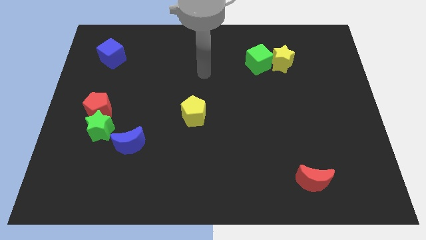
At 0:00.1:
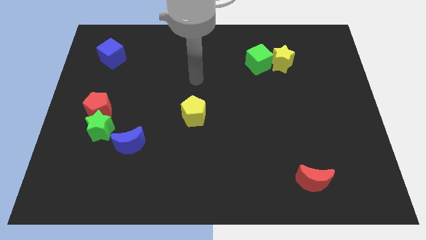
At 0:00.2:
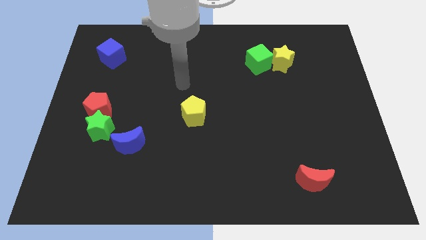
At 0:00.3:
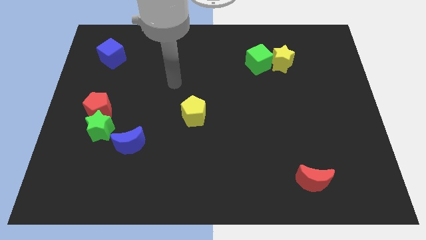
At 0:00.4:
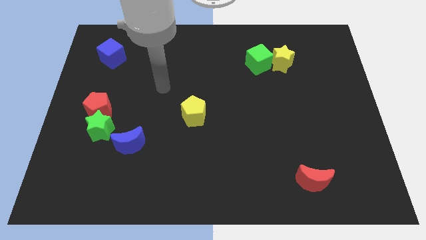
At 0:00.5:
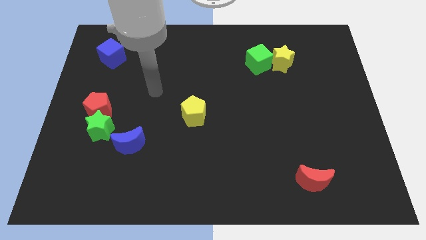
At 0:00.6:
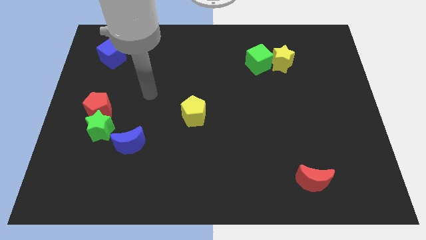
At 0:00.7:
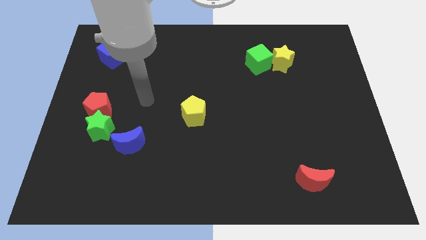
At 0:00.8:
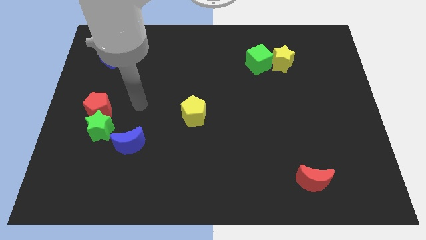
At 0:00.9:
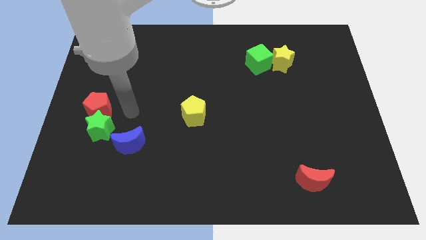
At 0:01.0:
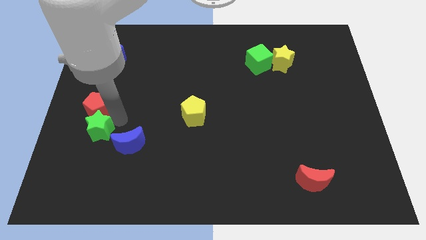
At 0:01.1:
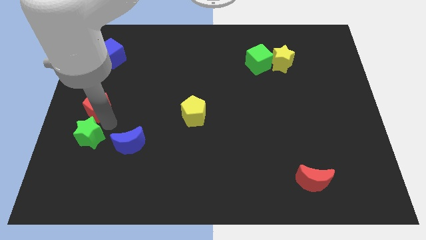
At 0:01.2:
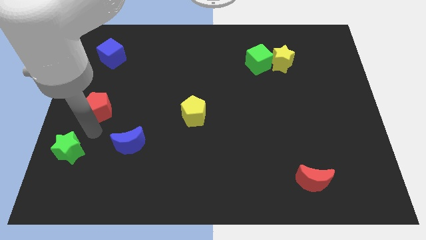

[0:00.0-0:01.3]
pull the red pentagon apart from the green star

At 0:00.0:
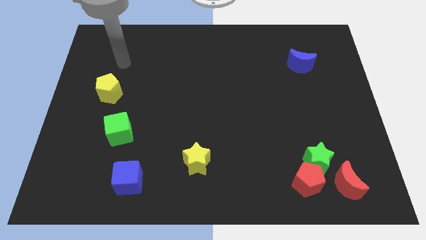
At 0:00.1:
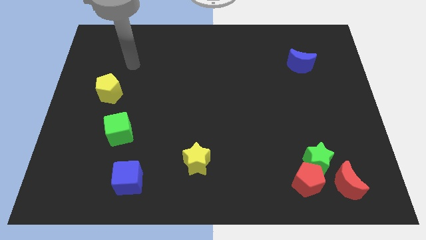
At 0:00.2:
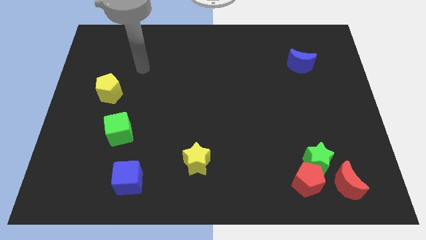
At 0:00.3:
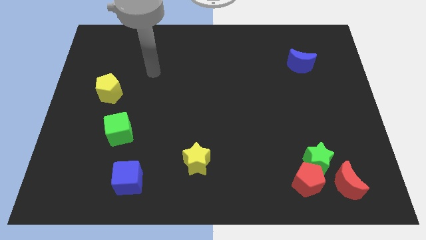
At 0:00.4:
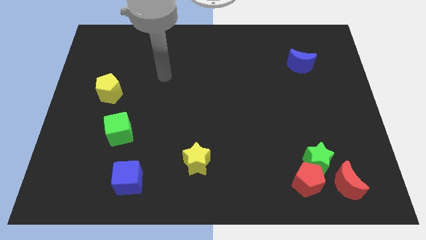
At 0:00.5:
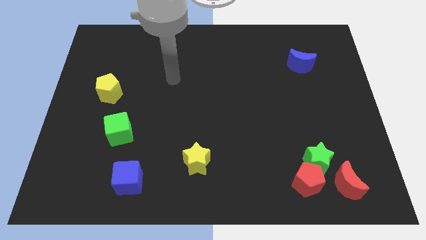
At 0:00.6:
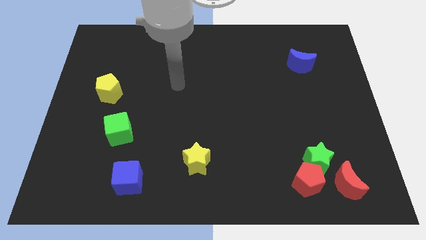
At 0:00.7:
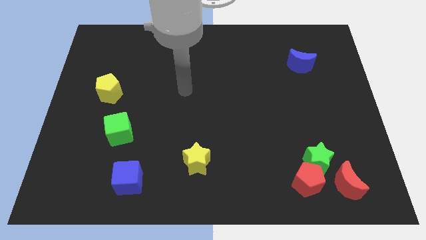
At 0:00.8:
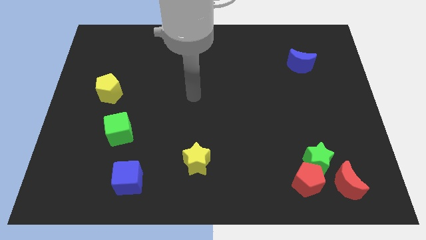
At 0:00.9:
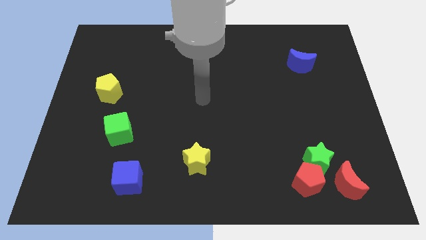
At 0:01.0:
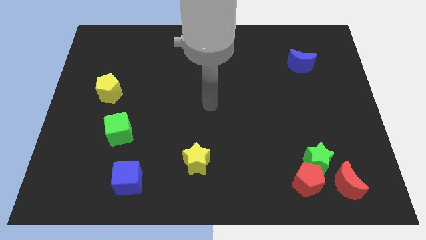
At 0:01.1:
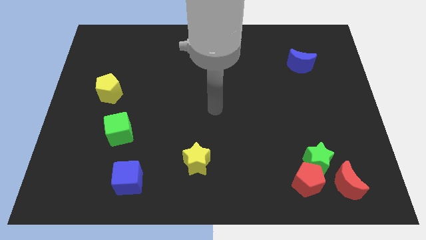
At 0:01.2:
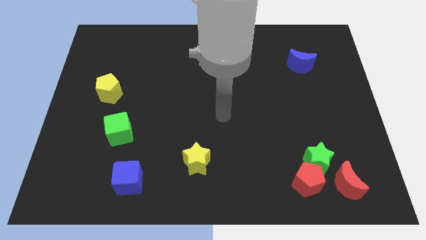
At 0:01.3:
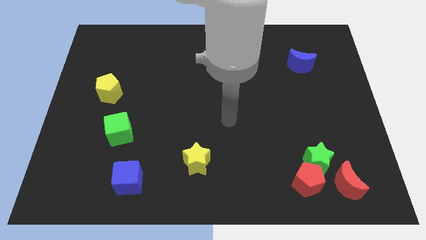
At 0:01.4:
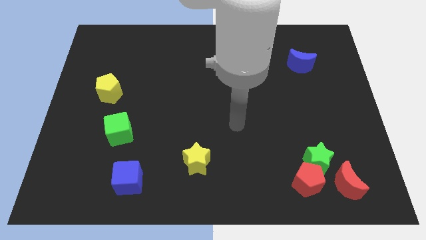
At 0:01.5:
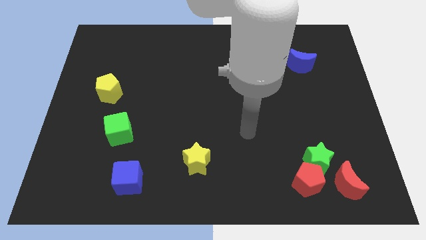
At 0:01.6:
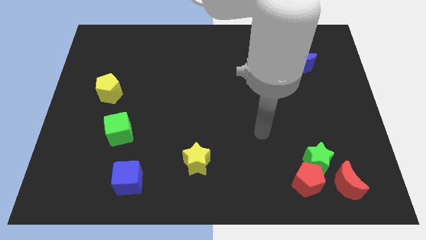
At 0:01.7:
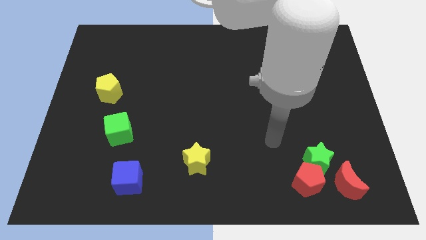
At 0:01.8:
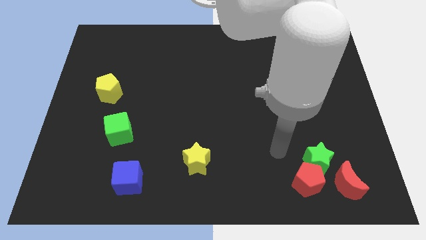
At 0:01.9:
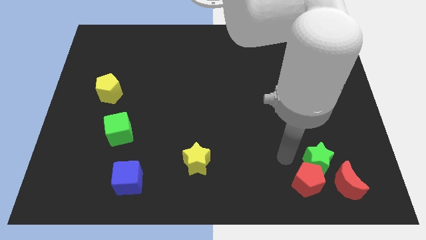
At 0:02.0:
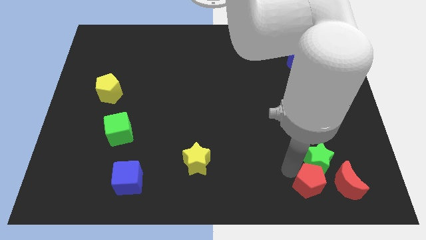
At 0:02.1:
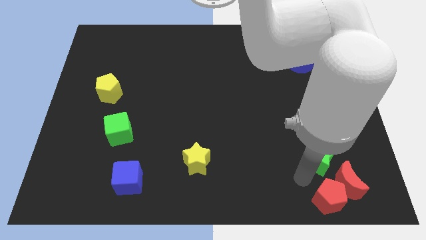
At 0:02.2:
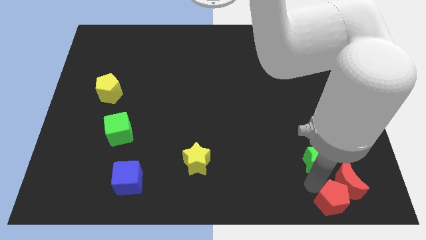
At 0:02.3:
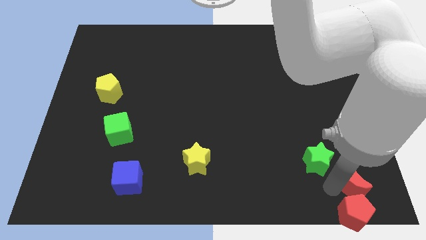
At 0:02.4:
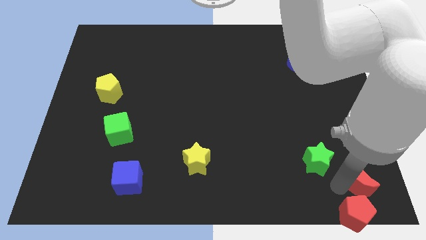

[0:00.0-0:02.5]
pull the green star apart from the red pentagon and red moon

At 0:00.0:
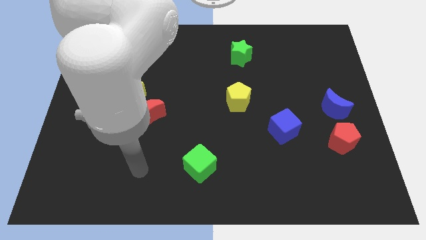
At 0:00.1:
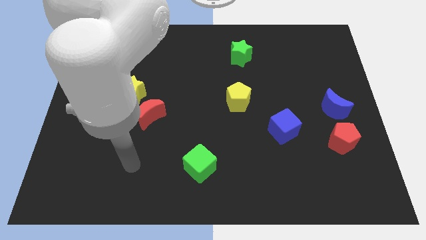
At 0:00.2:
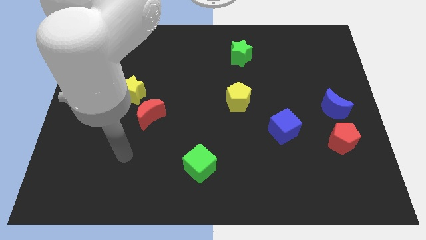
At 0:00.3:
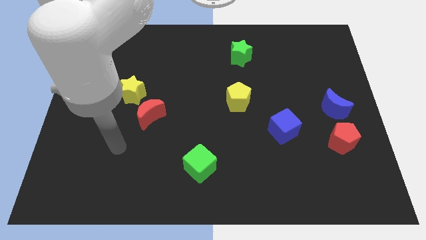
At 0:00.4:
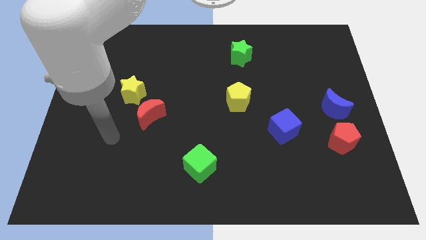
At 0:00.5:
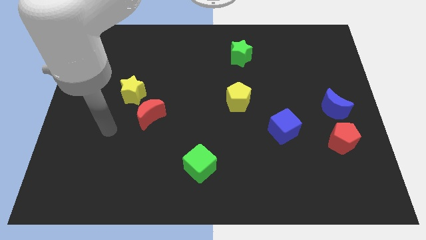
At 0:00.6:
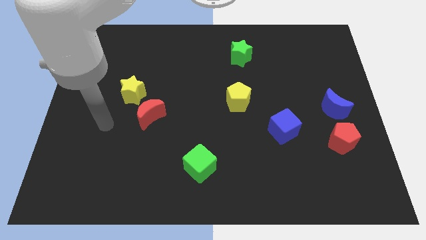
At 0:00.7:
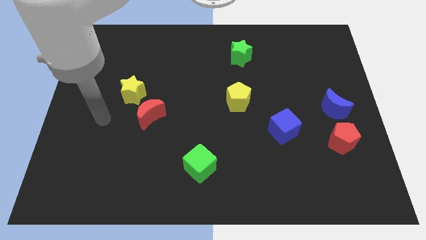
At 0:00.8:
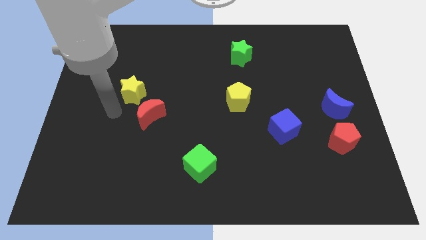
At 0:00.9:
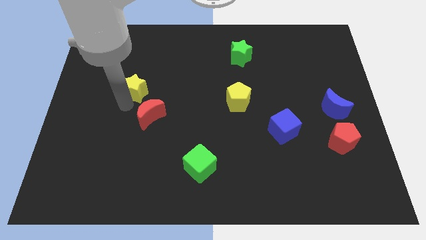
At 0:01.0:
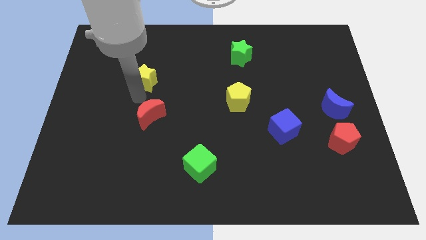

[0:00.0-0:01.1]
pull the red moon apart from the yellow star

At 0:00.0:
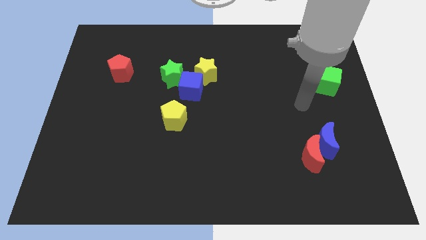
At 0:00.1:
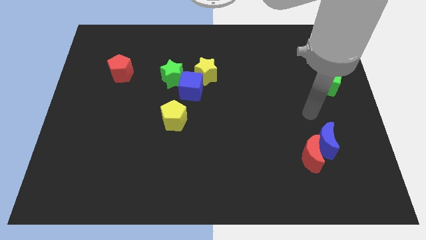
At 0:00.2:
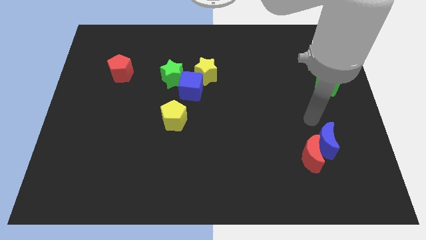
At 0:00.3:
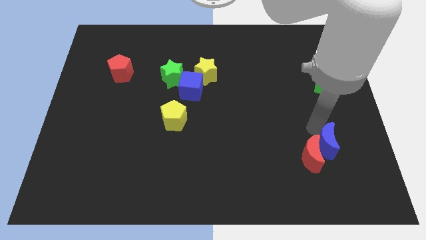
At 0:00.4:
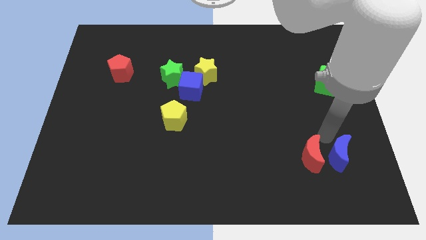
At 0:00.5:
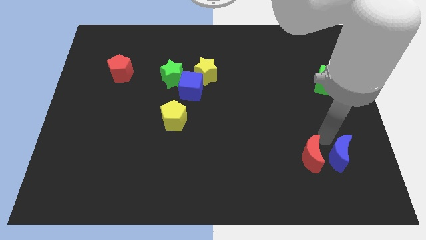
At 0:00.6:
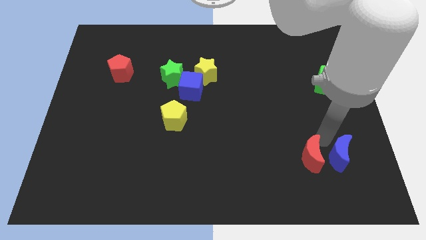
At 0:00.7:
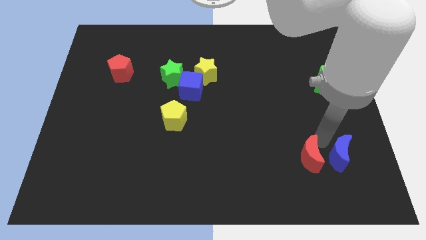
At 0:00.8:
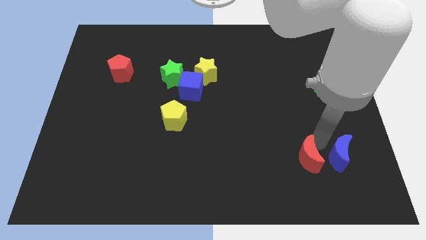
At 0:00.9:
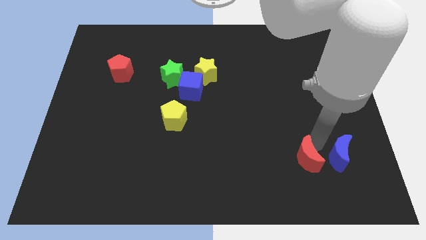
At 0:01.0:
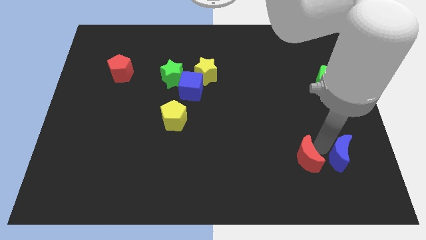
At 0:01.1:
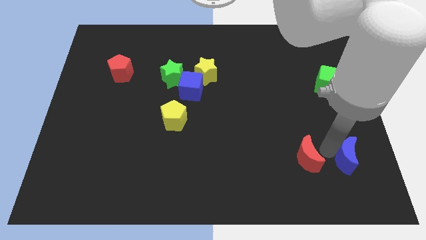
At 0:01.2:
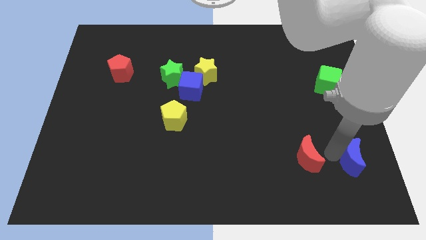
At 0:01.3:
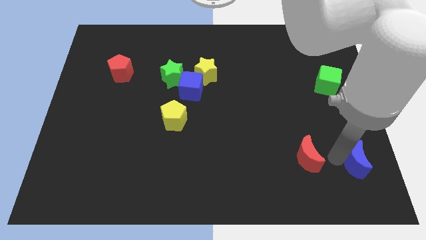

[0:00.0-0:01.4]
move the red moon away from the blue moon

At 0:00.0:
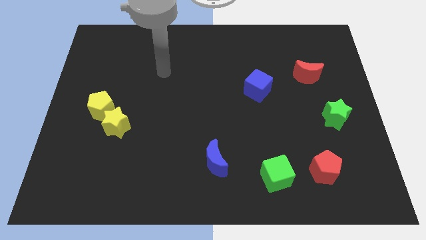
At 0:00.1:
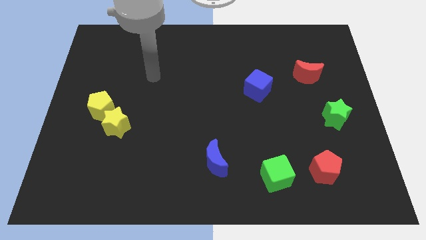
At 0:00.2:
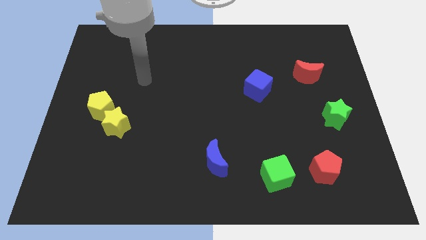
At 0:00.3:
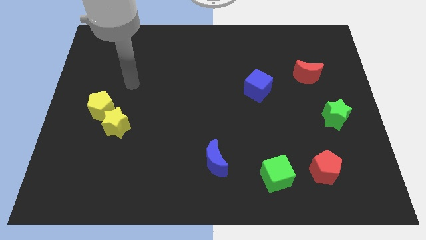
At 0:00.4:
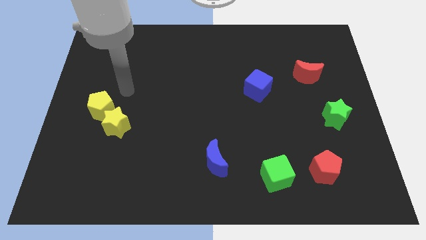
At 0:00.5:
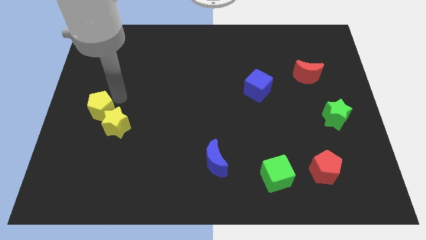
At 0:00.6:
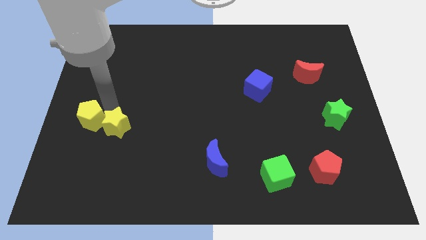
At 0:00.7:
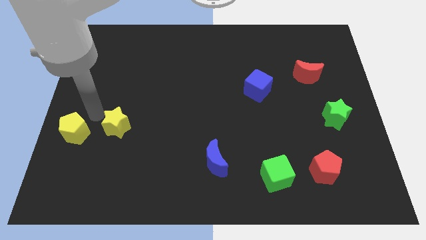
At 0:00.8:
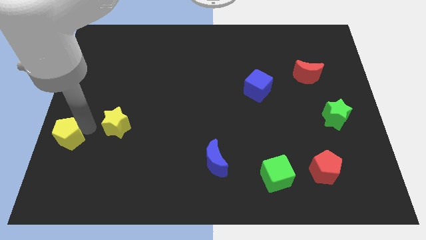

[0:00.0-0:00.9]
move the yellow star away from the yellow pentagon

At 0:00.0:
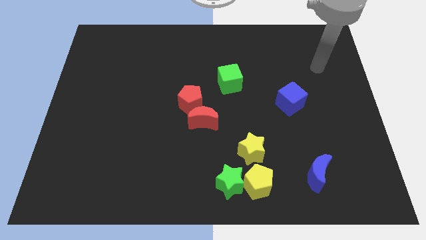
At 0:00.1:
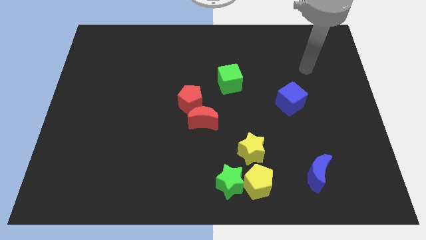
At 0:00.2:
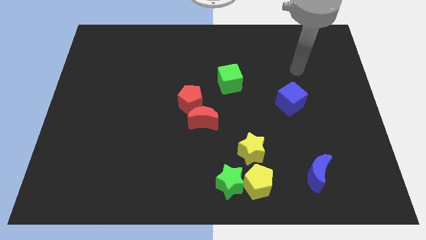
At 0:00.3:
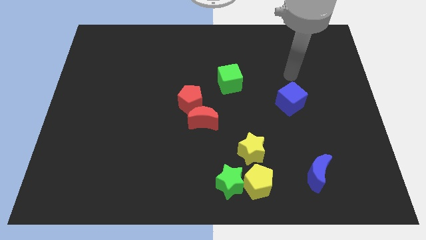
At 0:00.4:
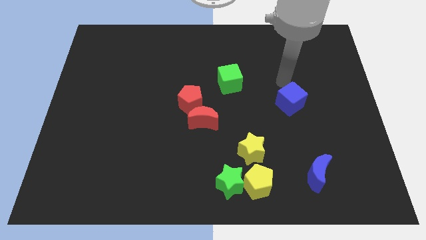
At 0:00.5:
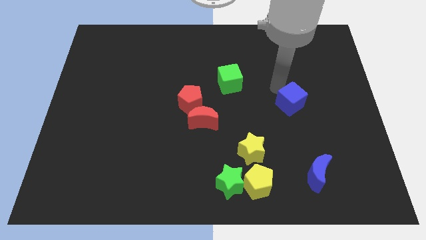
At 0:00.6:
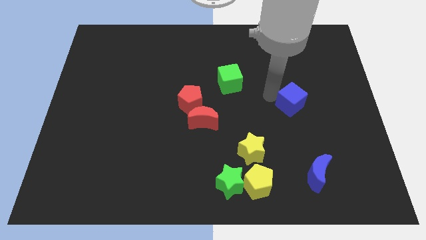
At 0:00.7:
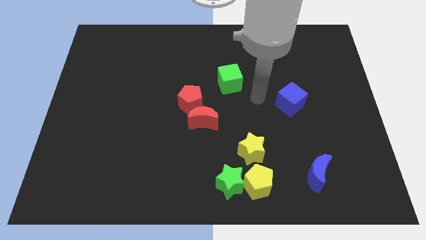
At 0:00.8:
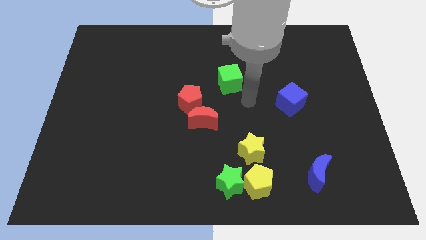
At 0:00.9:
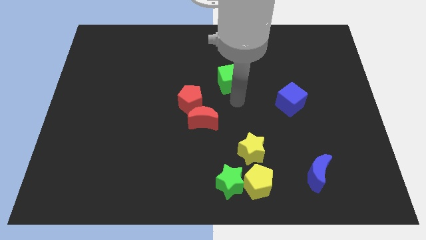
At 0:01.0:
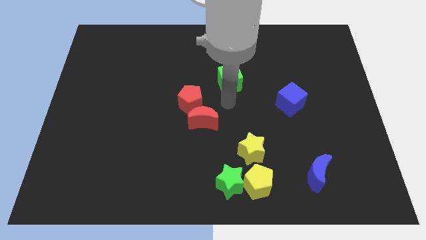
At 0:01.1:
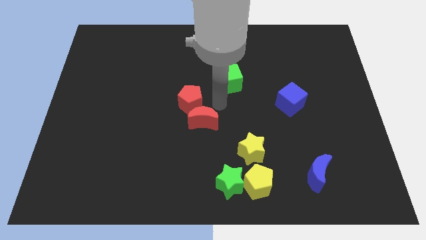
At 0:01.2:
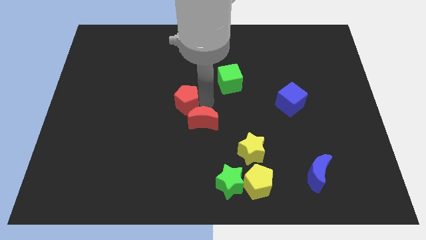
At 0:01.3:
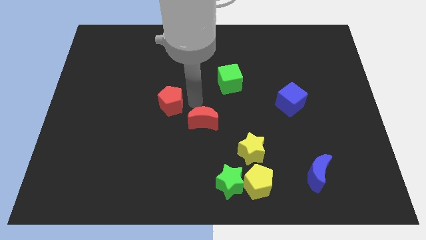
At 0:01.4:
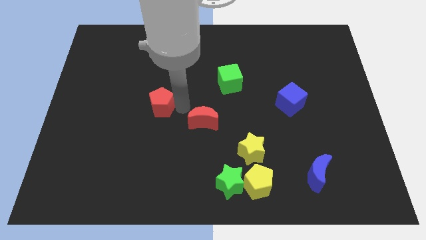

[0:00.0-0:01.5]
pull the red moon apart from the red pentagon

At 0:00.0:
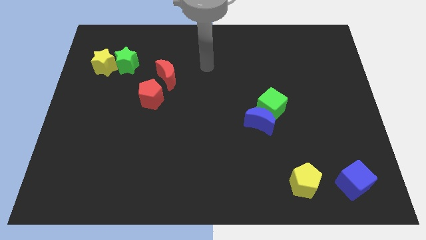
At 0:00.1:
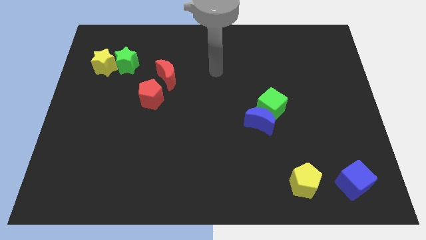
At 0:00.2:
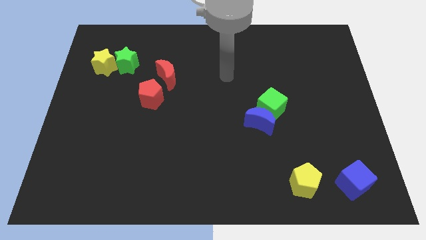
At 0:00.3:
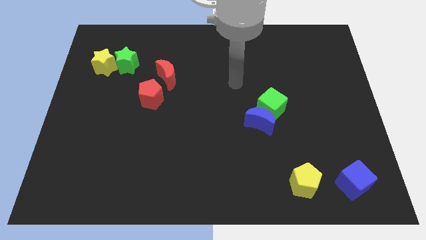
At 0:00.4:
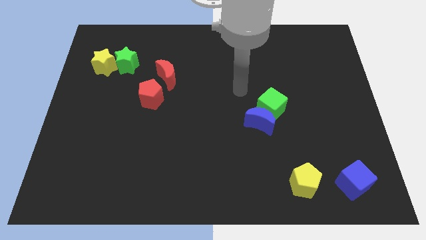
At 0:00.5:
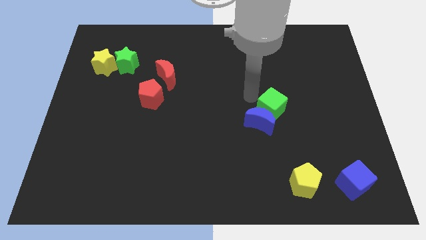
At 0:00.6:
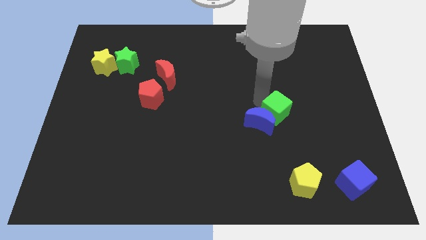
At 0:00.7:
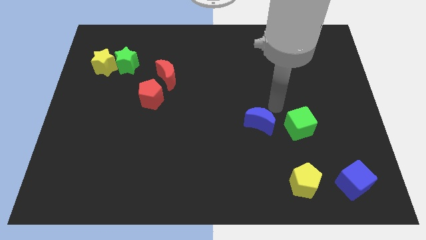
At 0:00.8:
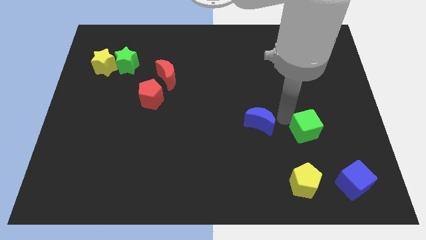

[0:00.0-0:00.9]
pull the blue moon apart from the green cube
